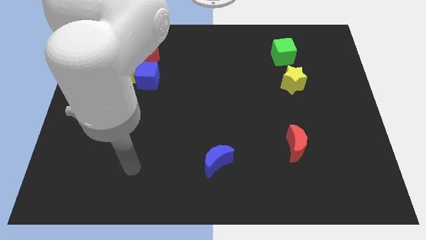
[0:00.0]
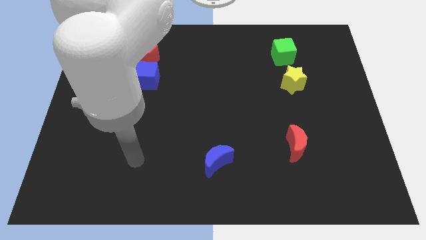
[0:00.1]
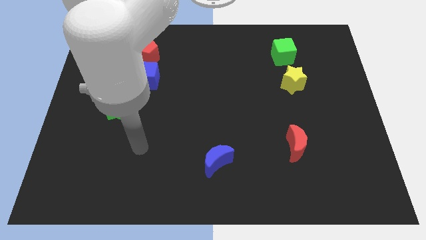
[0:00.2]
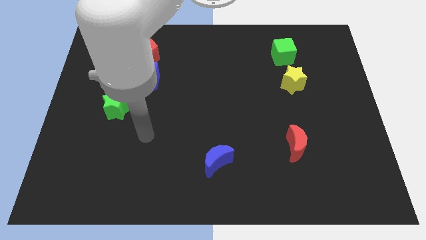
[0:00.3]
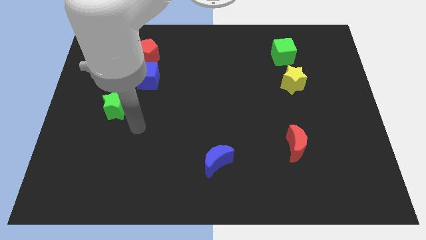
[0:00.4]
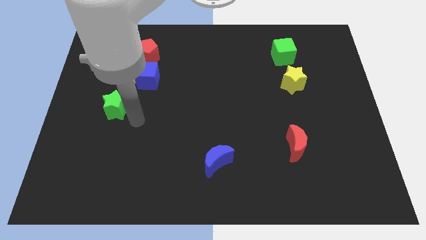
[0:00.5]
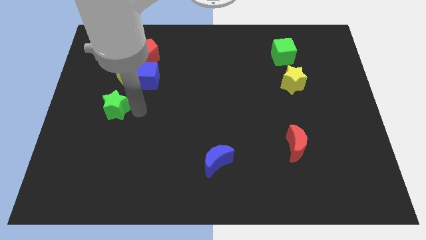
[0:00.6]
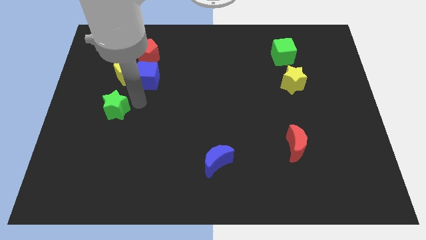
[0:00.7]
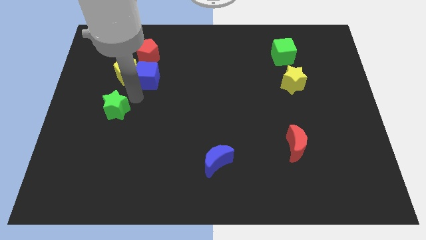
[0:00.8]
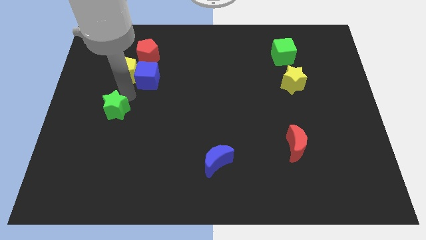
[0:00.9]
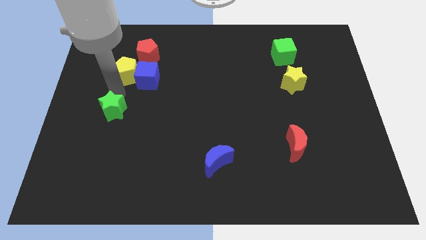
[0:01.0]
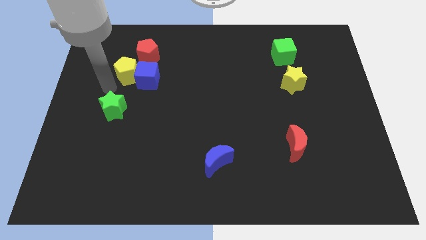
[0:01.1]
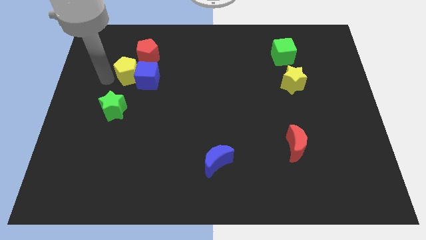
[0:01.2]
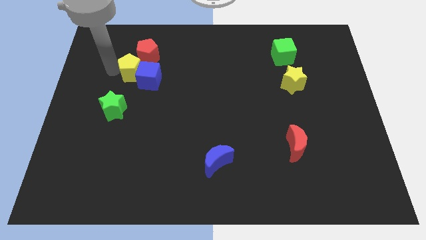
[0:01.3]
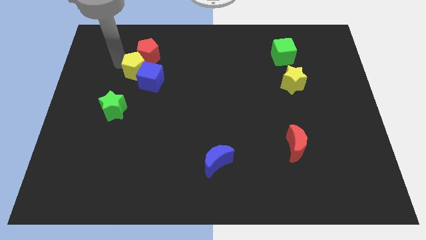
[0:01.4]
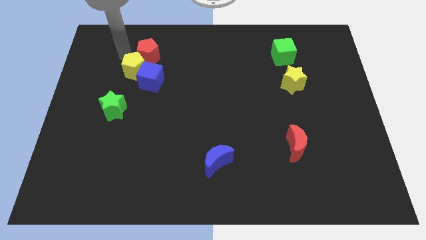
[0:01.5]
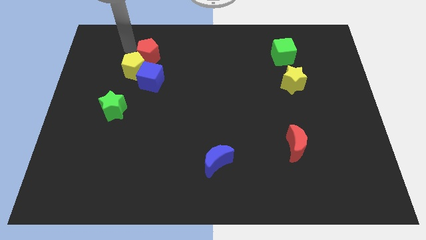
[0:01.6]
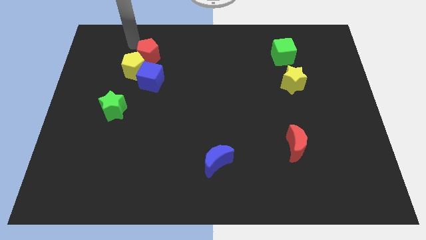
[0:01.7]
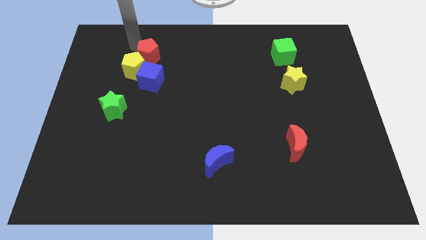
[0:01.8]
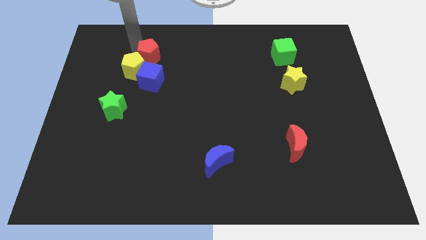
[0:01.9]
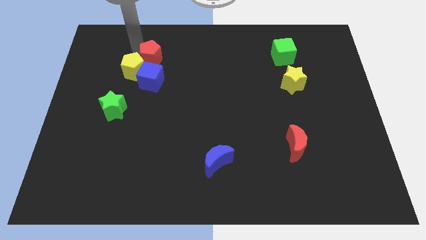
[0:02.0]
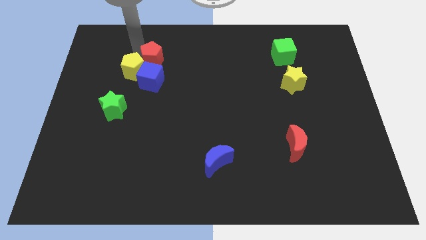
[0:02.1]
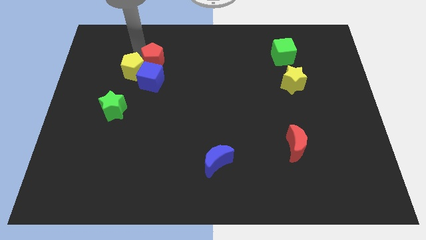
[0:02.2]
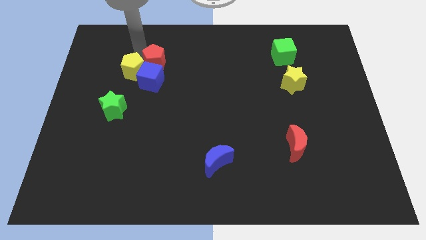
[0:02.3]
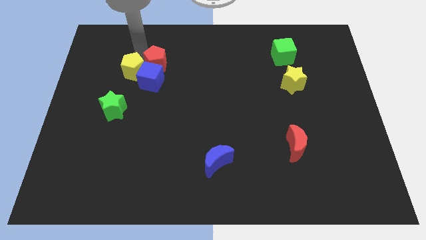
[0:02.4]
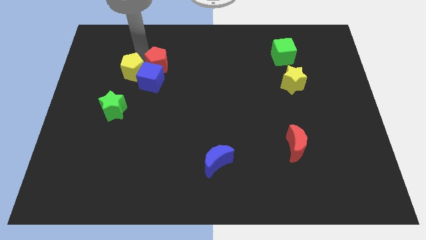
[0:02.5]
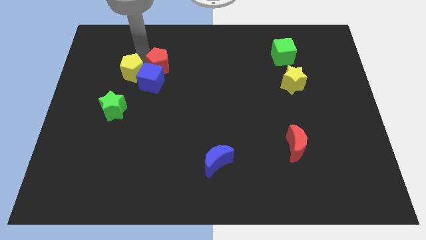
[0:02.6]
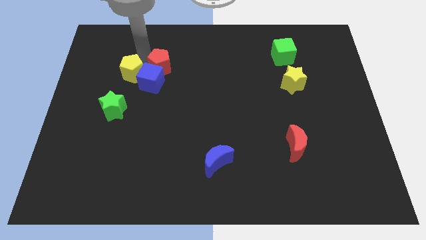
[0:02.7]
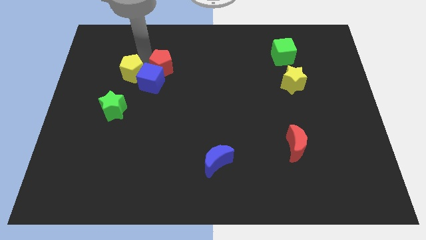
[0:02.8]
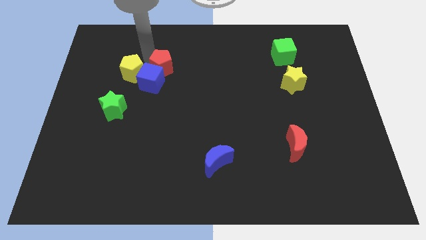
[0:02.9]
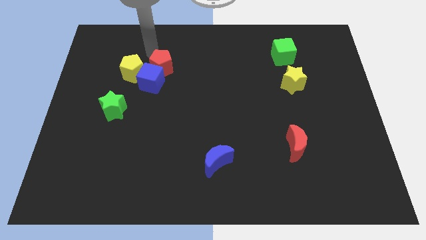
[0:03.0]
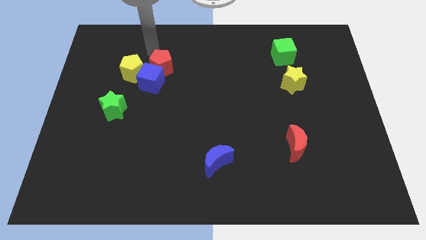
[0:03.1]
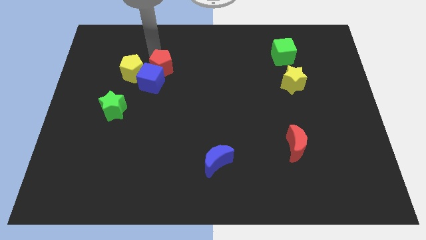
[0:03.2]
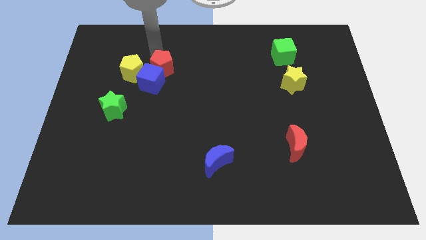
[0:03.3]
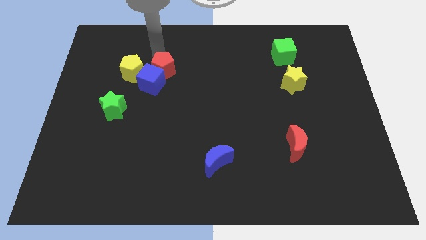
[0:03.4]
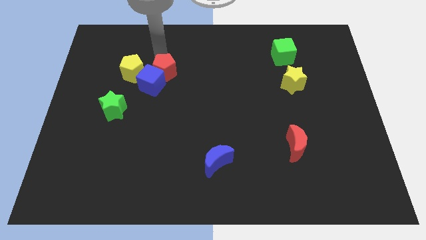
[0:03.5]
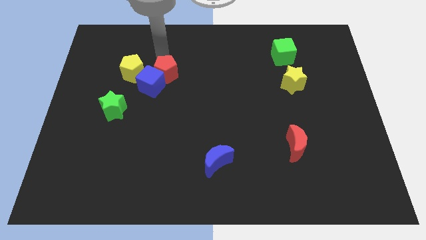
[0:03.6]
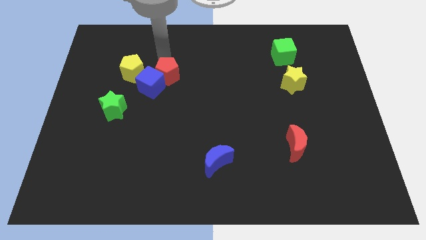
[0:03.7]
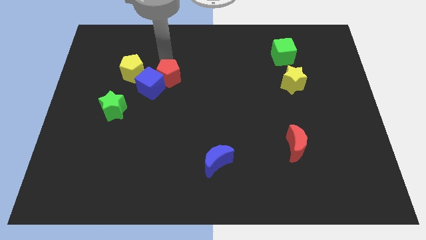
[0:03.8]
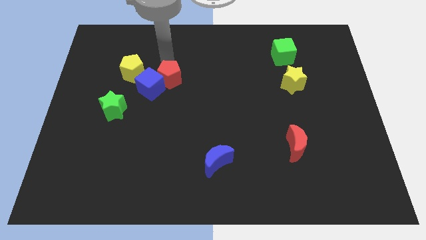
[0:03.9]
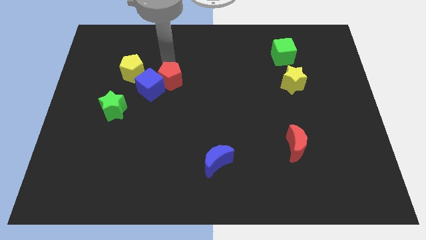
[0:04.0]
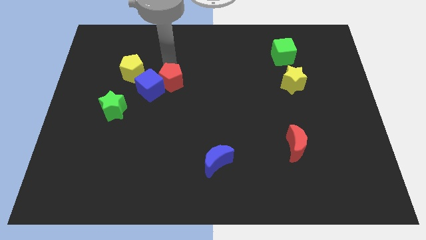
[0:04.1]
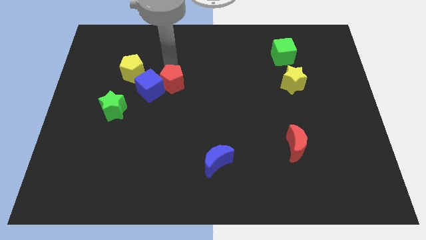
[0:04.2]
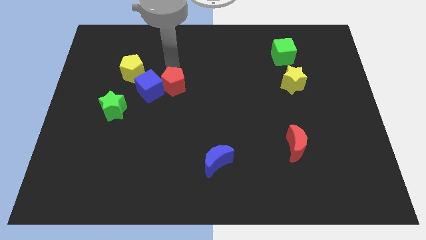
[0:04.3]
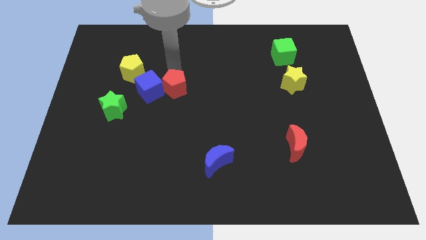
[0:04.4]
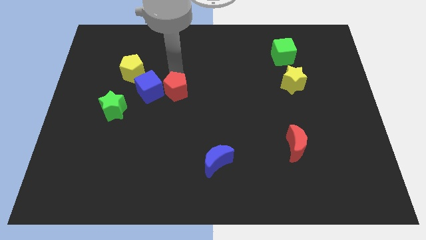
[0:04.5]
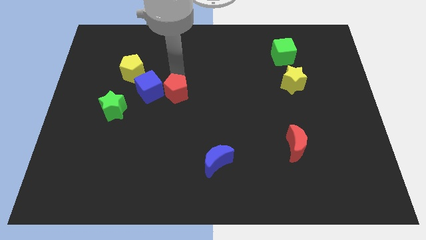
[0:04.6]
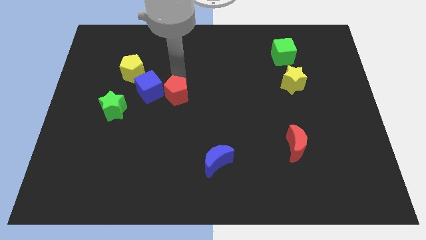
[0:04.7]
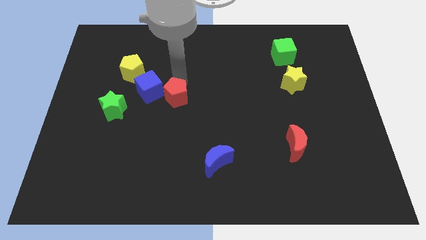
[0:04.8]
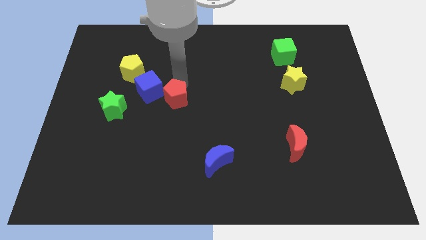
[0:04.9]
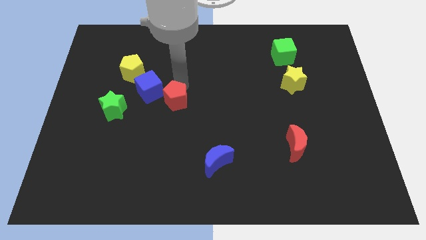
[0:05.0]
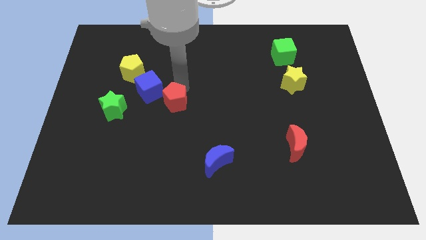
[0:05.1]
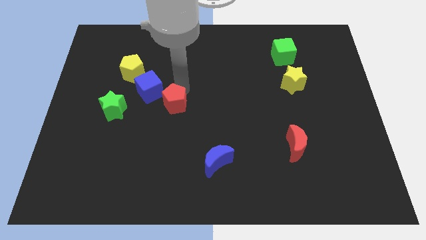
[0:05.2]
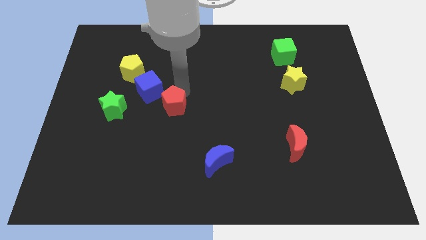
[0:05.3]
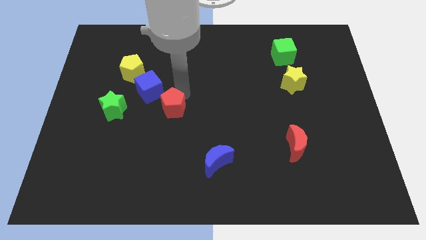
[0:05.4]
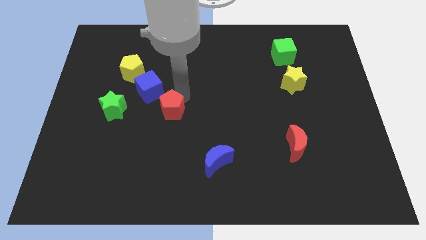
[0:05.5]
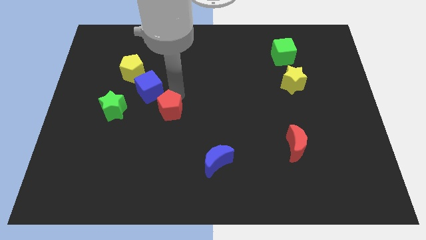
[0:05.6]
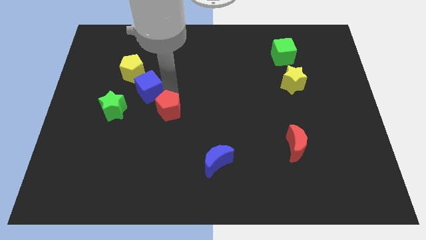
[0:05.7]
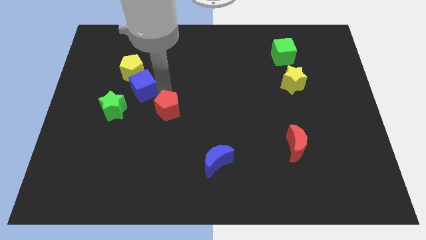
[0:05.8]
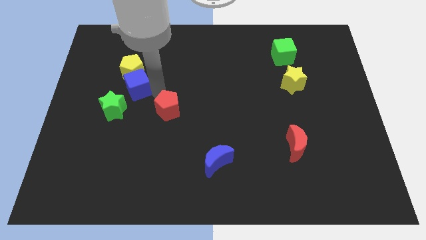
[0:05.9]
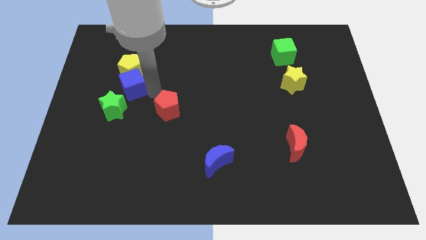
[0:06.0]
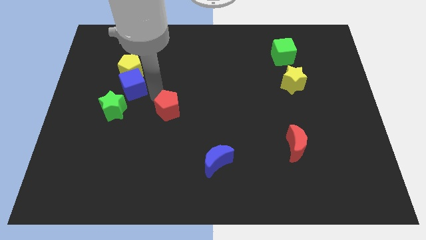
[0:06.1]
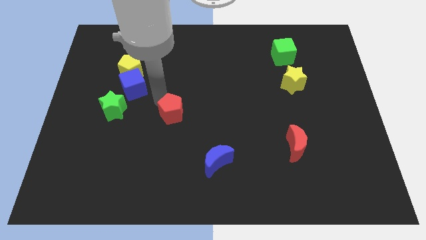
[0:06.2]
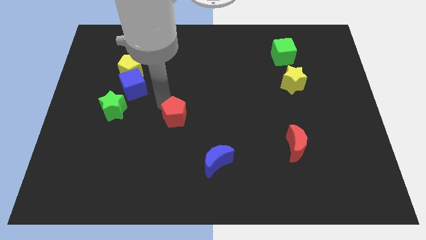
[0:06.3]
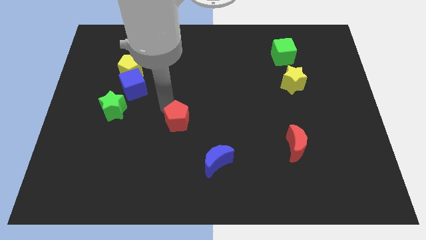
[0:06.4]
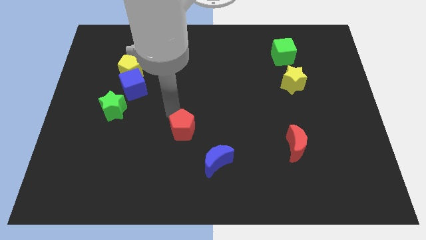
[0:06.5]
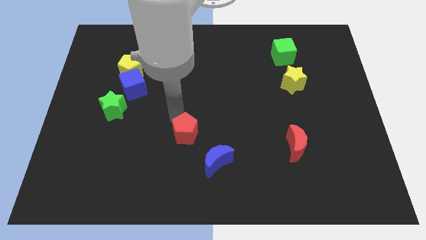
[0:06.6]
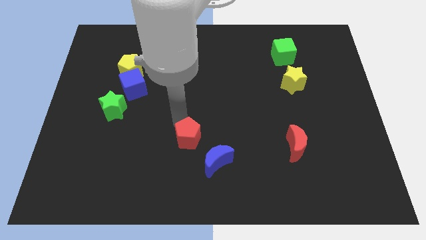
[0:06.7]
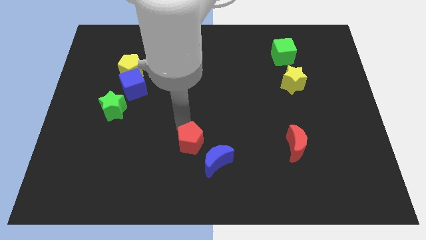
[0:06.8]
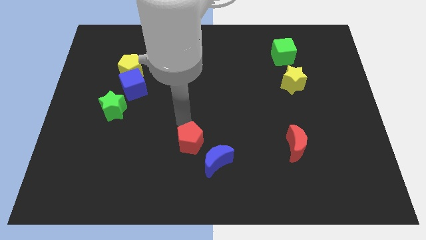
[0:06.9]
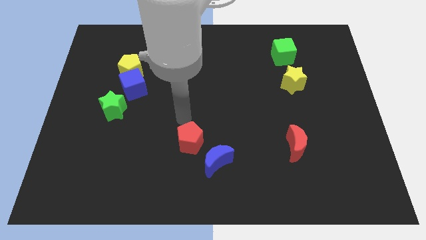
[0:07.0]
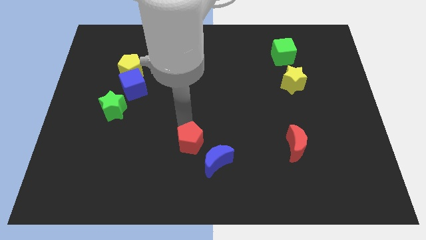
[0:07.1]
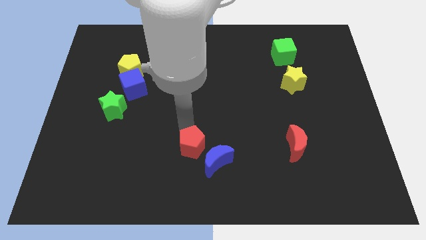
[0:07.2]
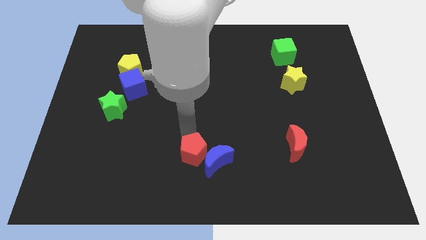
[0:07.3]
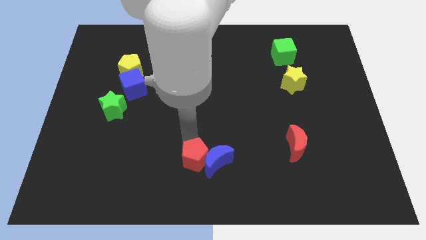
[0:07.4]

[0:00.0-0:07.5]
put the red pentagon to the bottom left side of the blue moon
